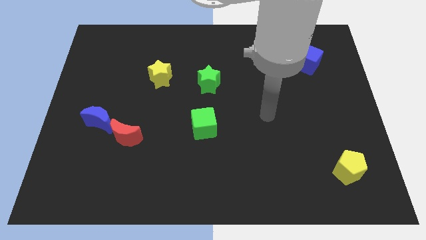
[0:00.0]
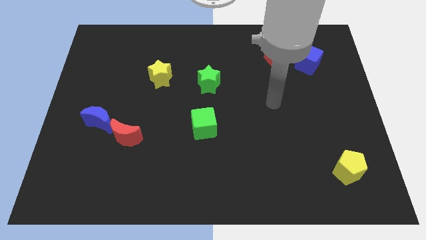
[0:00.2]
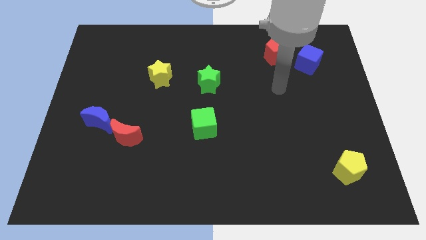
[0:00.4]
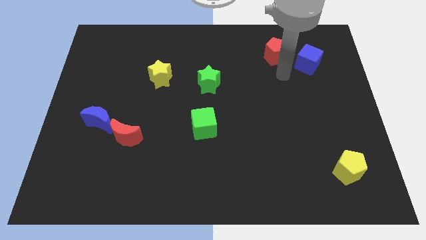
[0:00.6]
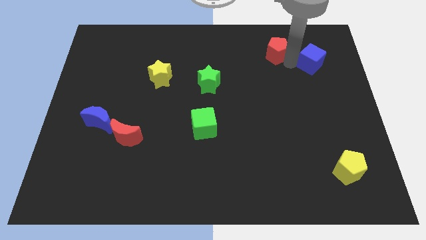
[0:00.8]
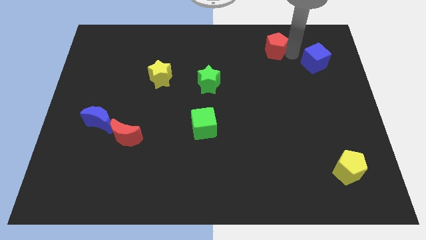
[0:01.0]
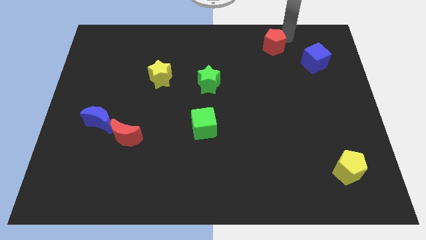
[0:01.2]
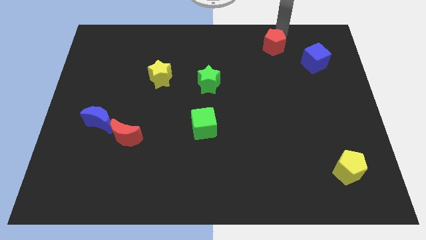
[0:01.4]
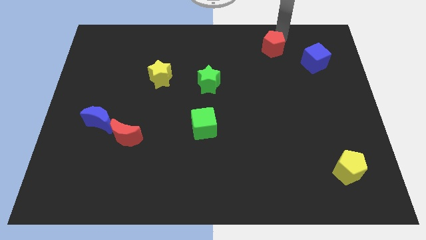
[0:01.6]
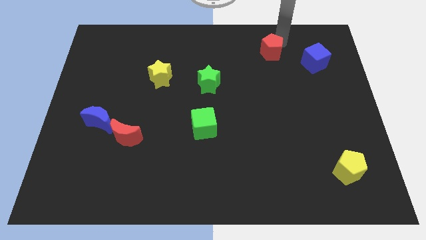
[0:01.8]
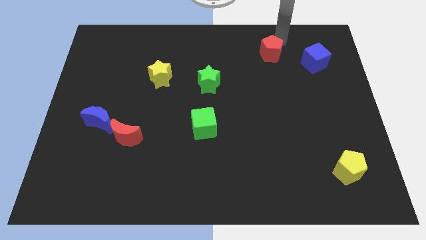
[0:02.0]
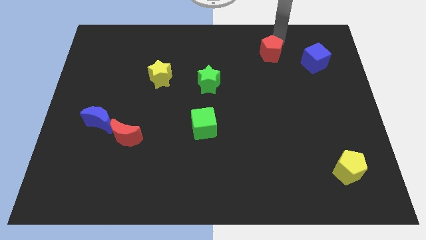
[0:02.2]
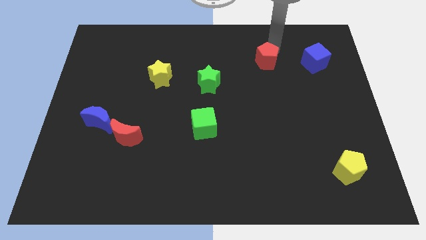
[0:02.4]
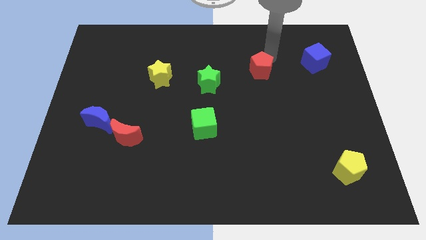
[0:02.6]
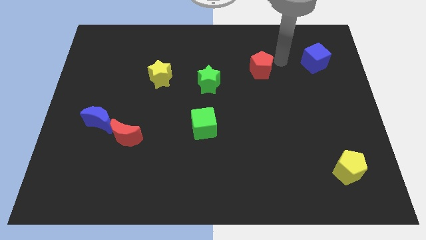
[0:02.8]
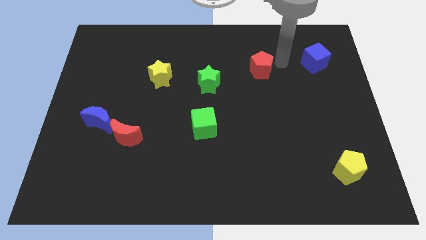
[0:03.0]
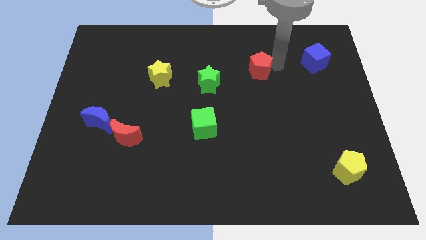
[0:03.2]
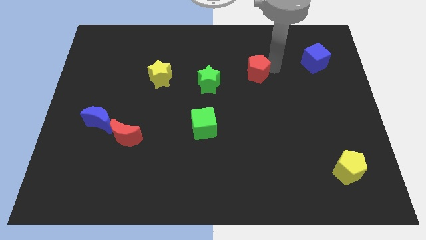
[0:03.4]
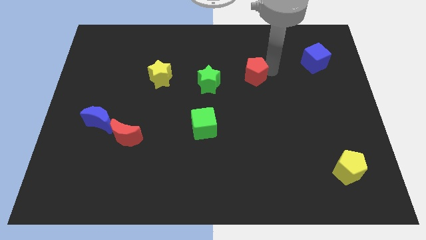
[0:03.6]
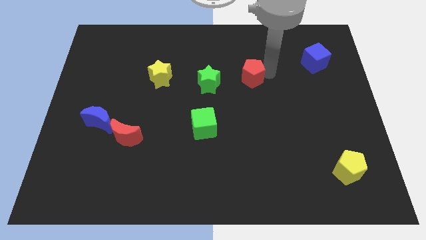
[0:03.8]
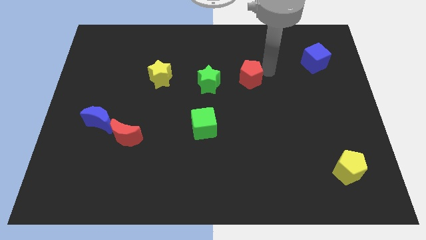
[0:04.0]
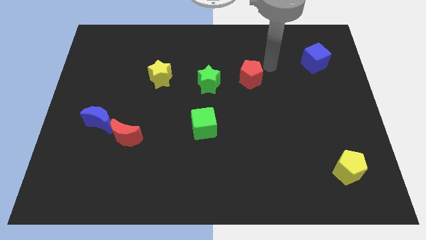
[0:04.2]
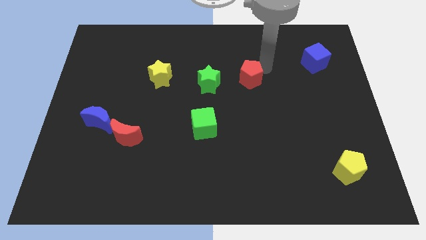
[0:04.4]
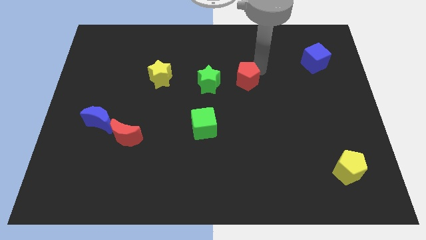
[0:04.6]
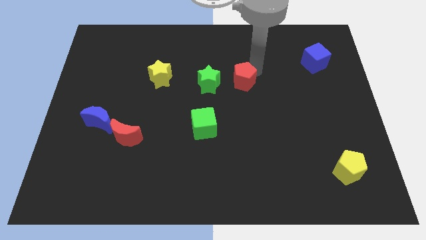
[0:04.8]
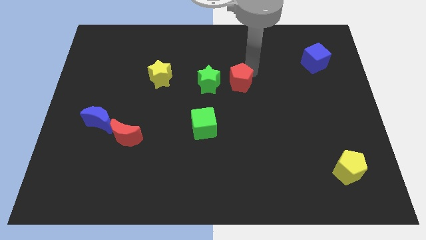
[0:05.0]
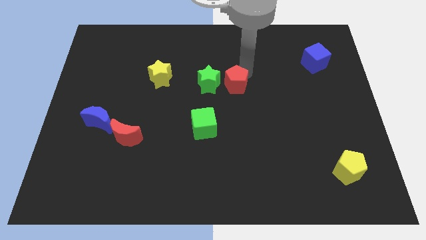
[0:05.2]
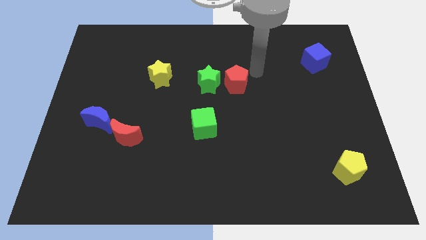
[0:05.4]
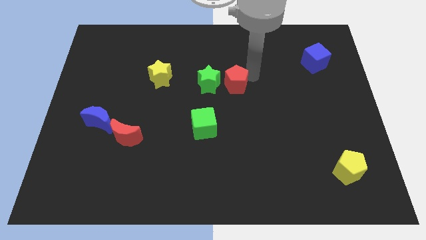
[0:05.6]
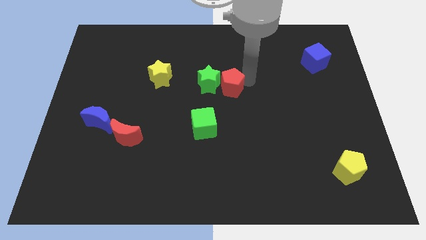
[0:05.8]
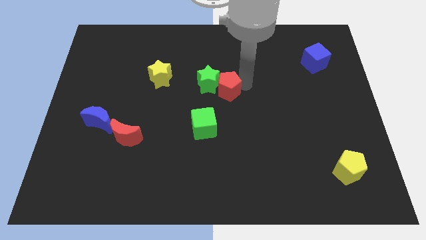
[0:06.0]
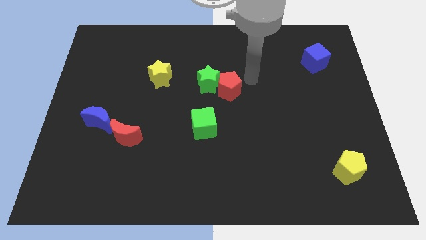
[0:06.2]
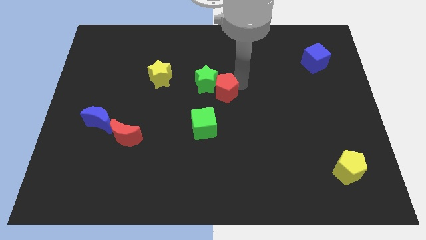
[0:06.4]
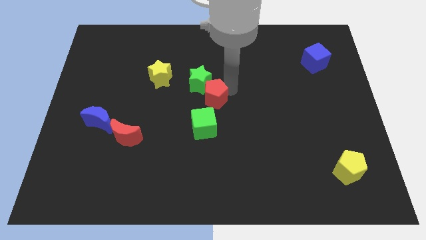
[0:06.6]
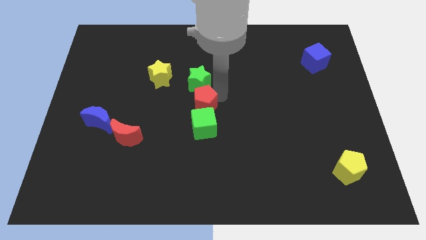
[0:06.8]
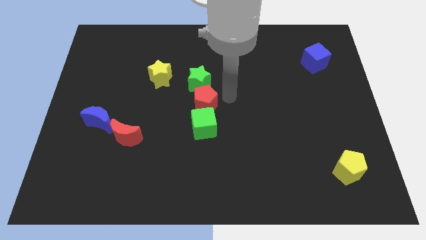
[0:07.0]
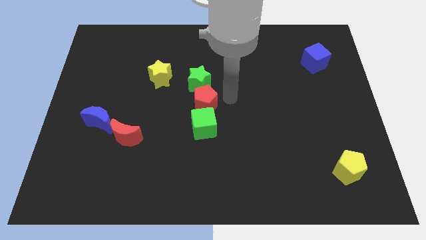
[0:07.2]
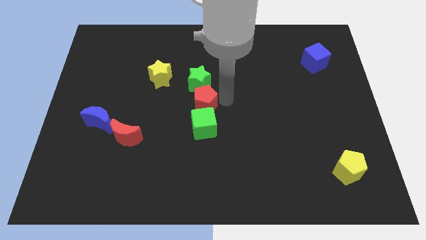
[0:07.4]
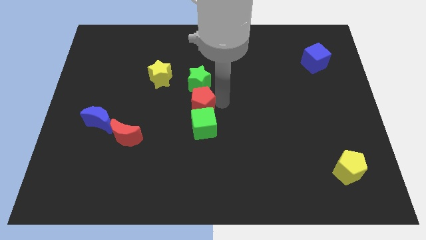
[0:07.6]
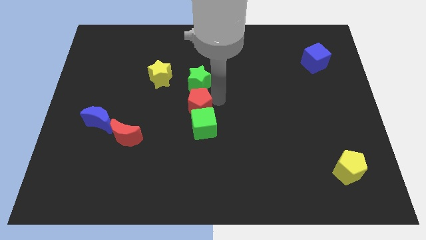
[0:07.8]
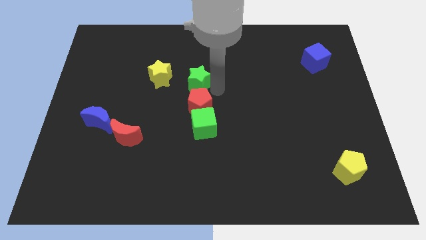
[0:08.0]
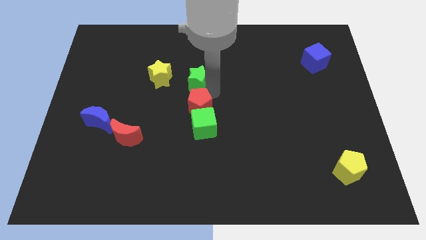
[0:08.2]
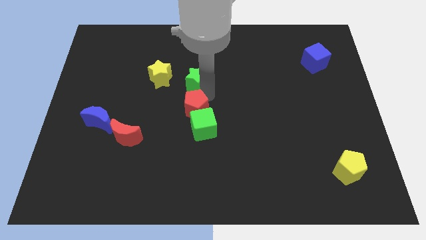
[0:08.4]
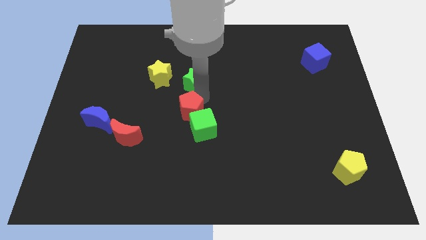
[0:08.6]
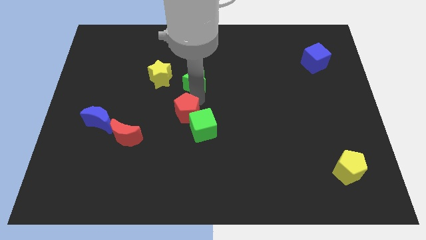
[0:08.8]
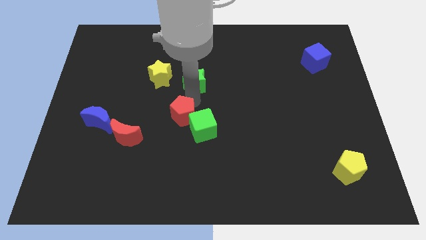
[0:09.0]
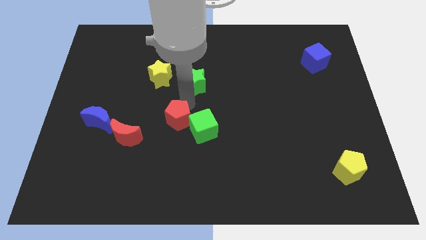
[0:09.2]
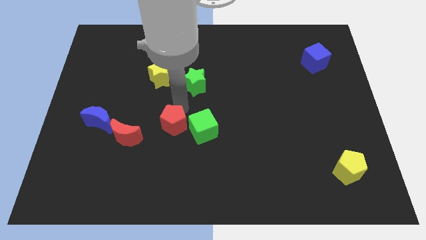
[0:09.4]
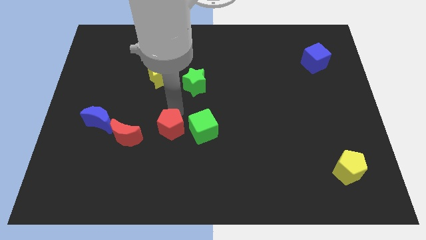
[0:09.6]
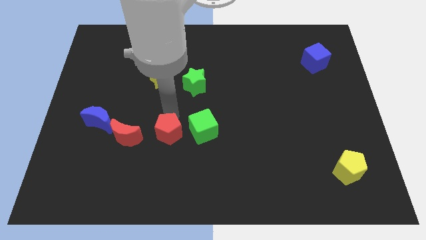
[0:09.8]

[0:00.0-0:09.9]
put the red pentagon to the bottom left side of the green cube

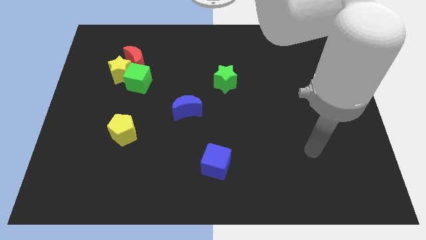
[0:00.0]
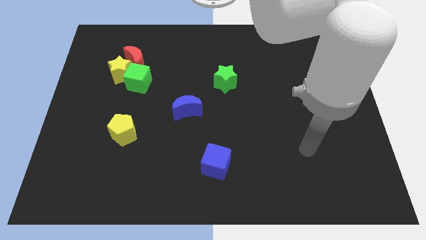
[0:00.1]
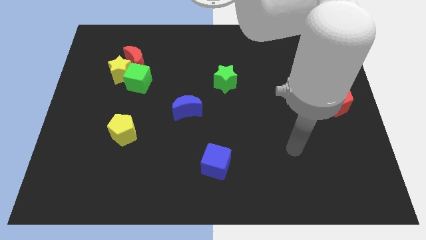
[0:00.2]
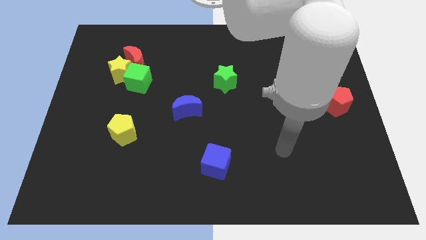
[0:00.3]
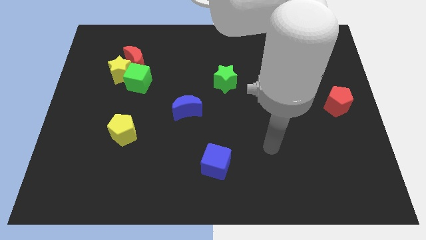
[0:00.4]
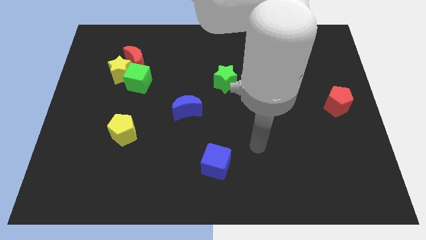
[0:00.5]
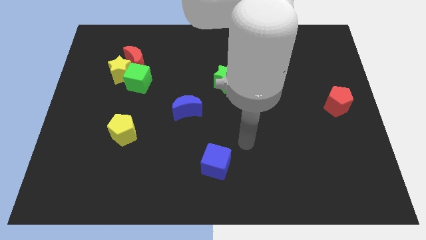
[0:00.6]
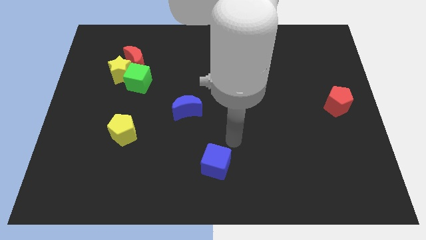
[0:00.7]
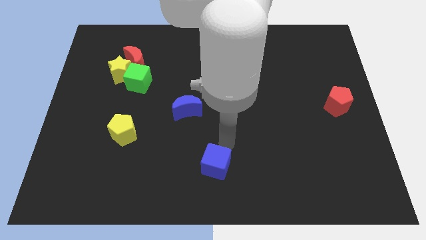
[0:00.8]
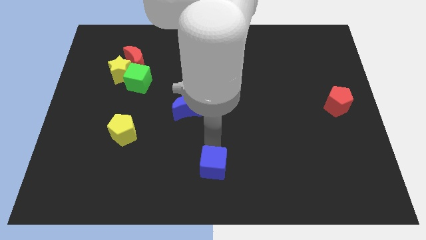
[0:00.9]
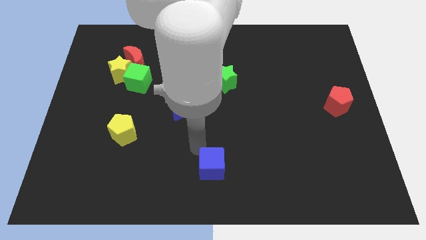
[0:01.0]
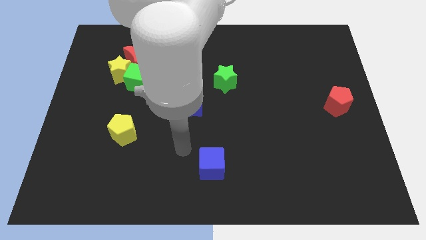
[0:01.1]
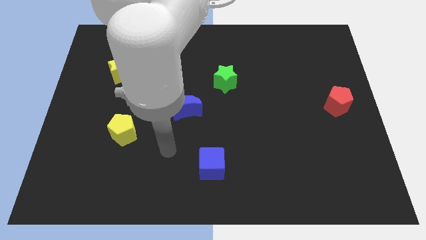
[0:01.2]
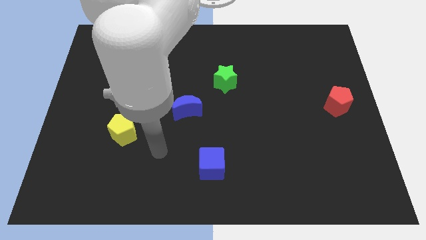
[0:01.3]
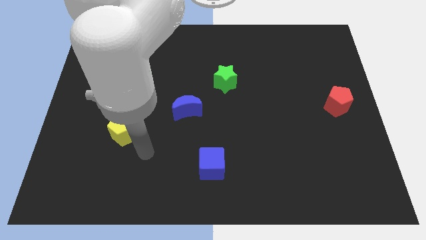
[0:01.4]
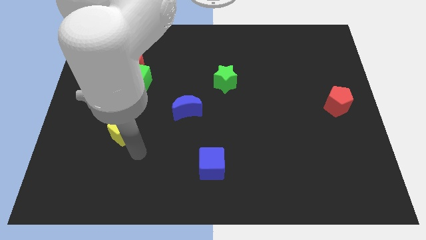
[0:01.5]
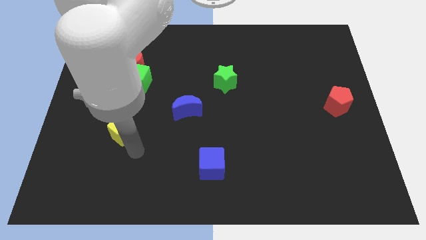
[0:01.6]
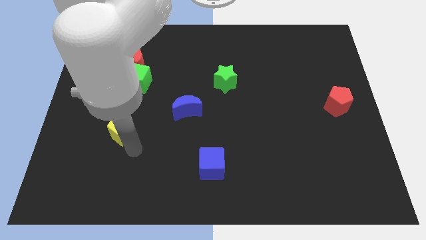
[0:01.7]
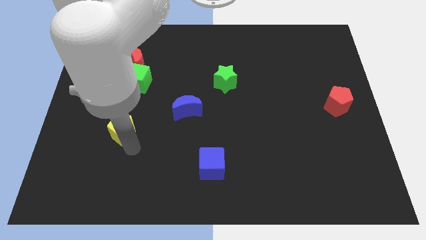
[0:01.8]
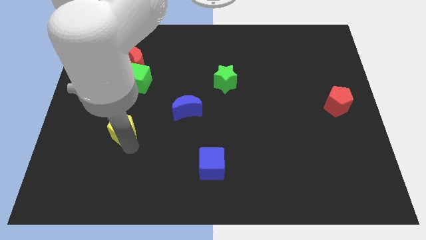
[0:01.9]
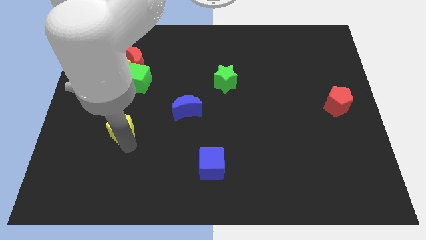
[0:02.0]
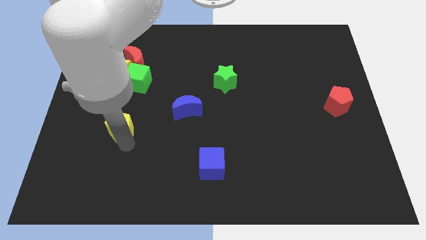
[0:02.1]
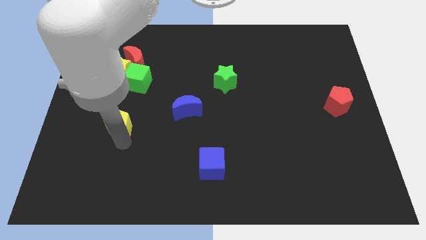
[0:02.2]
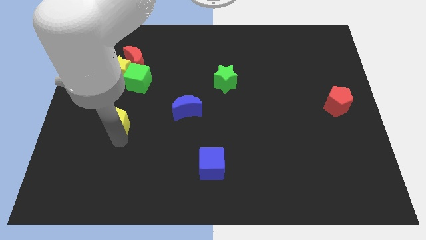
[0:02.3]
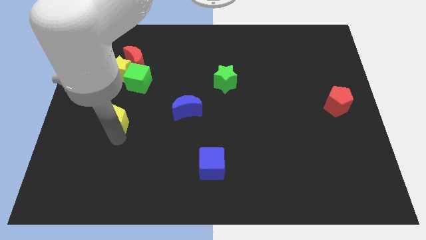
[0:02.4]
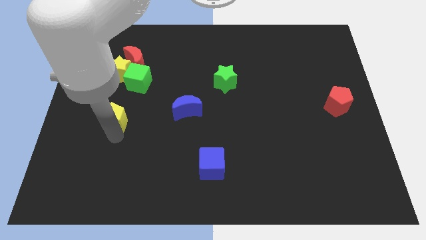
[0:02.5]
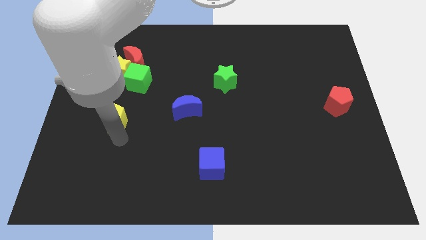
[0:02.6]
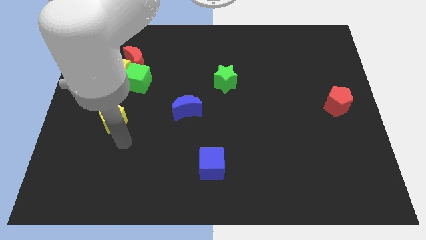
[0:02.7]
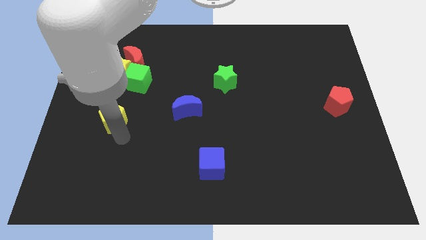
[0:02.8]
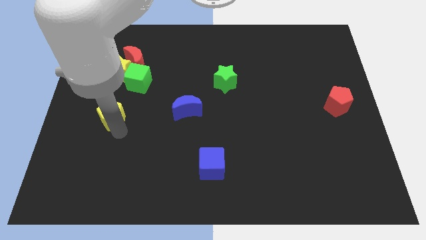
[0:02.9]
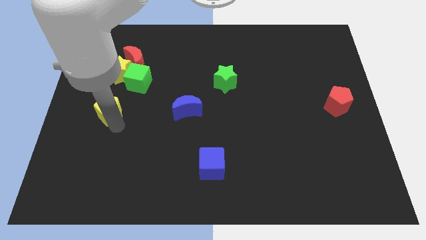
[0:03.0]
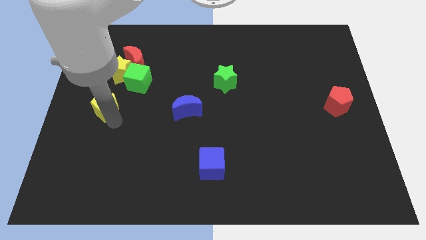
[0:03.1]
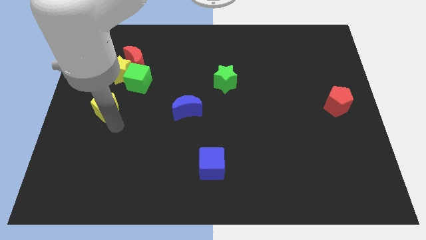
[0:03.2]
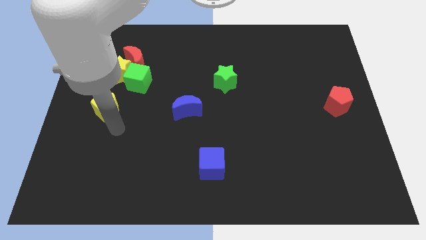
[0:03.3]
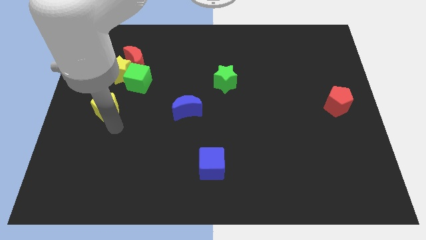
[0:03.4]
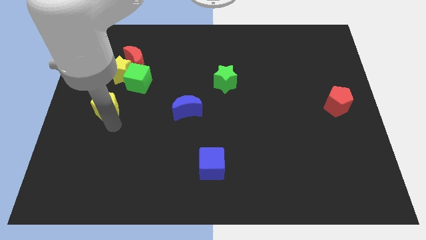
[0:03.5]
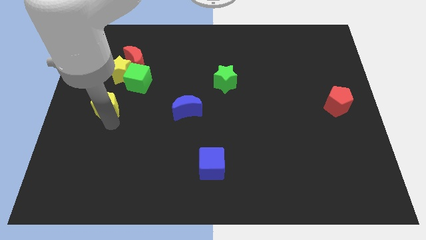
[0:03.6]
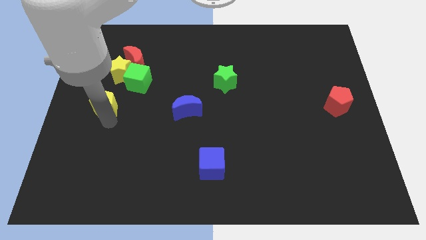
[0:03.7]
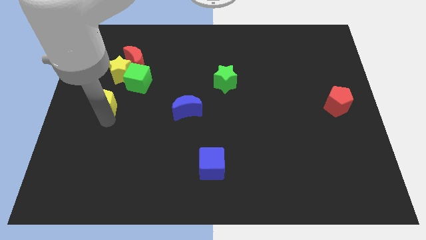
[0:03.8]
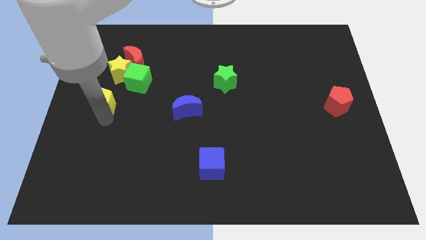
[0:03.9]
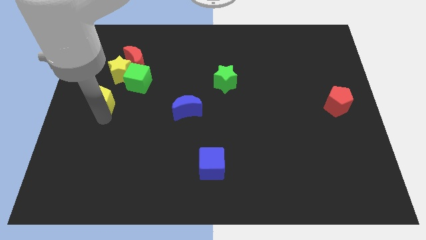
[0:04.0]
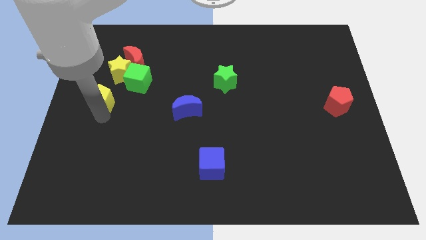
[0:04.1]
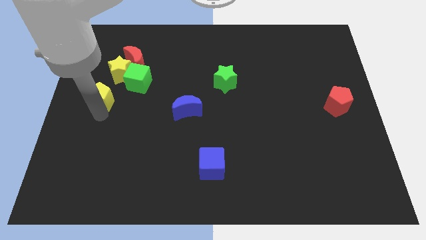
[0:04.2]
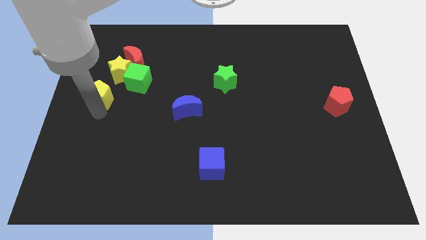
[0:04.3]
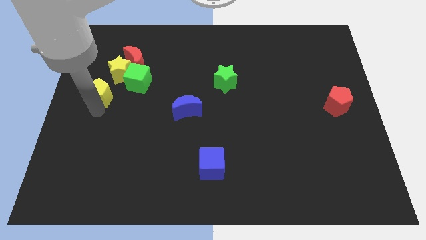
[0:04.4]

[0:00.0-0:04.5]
move the yellow pentagon just left of the green cube
